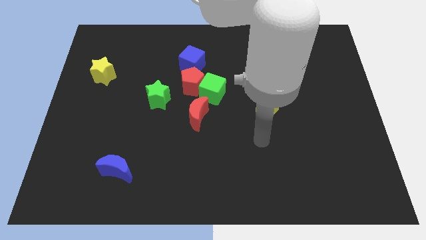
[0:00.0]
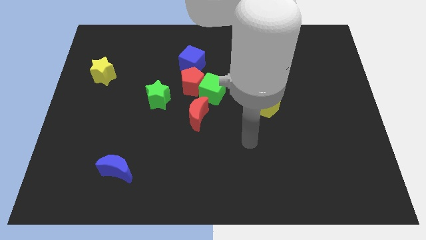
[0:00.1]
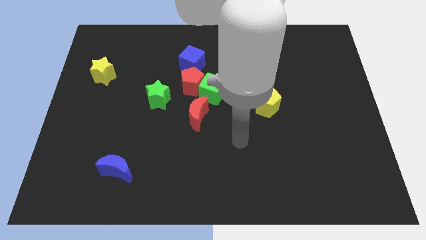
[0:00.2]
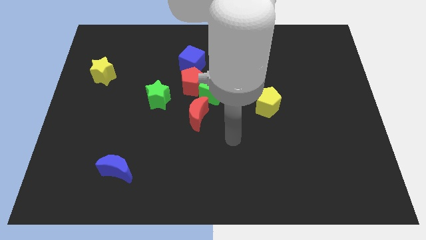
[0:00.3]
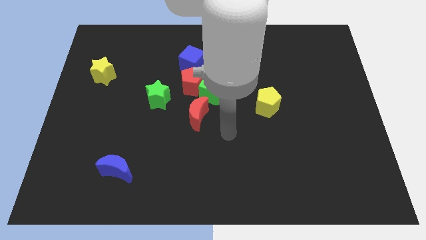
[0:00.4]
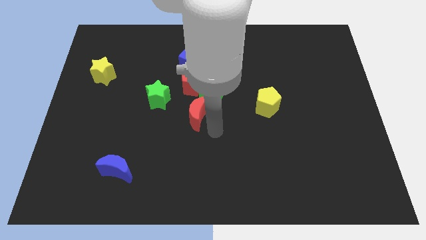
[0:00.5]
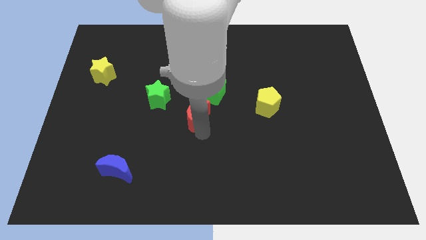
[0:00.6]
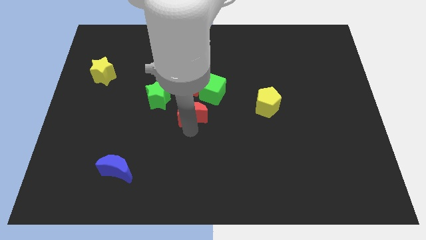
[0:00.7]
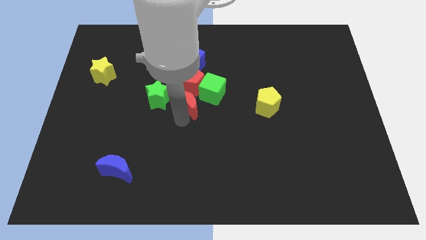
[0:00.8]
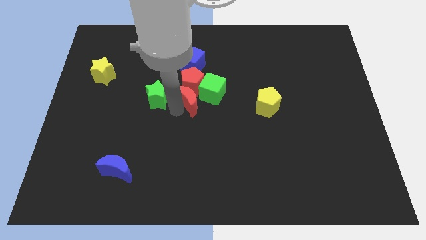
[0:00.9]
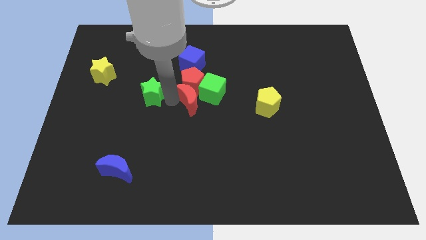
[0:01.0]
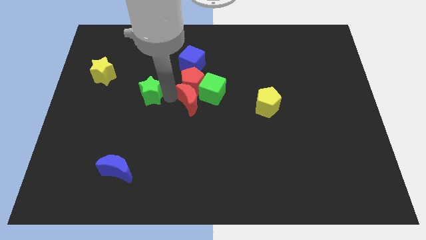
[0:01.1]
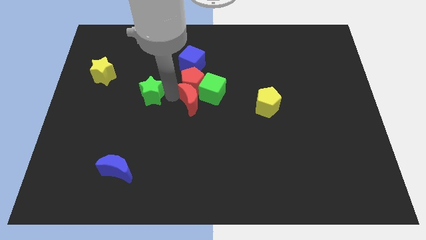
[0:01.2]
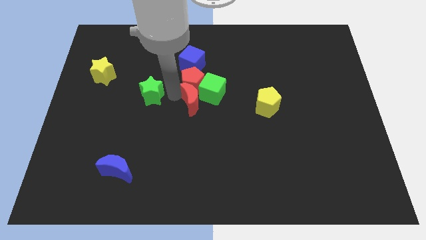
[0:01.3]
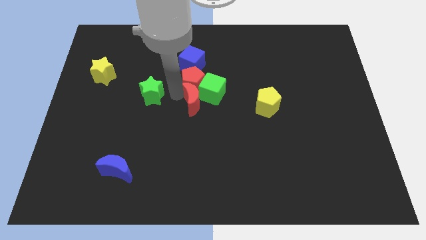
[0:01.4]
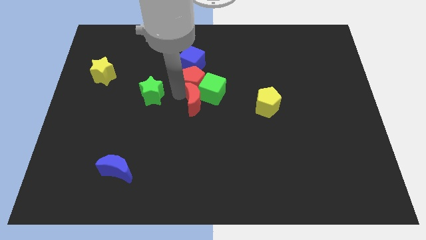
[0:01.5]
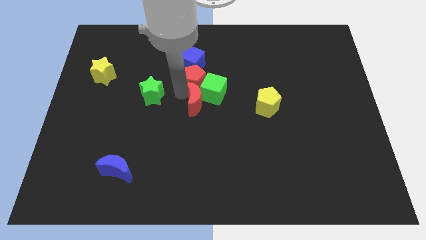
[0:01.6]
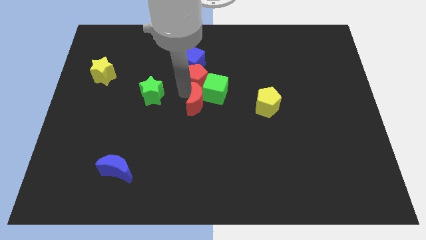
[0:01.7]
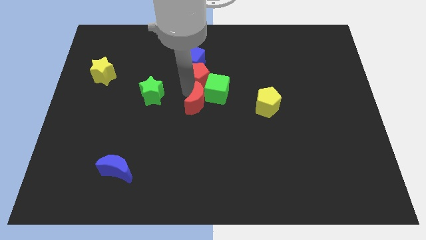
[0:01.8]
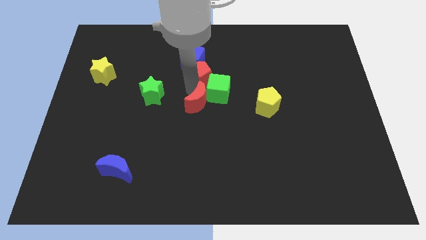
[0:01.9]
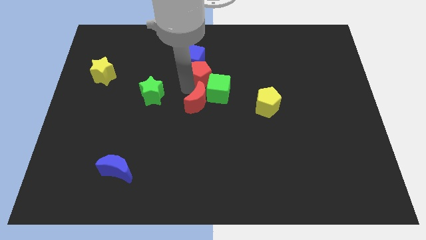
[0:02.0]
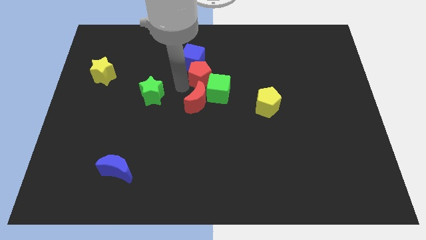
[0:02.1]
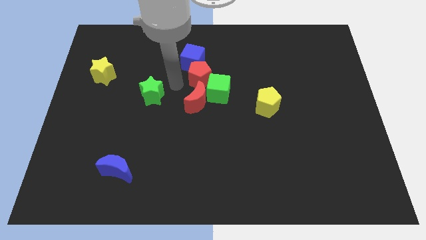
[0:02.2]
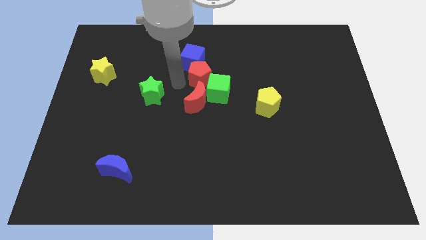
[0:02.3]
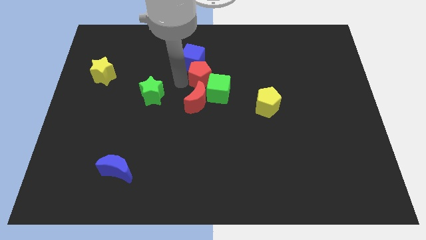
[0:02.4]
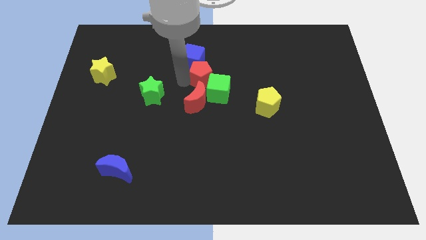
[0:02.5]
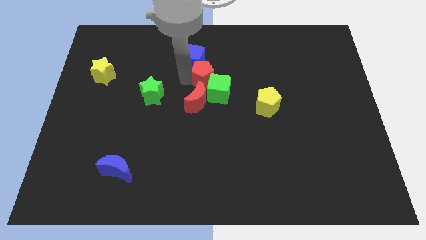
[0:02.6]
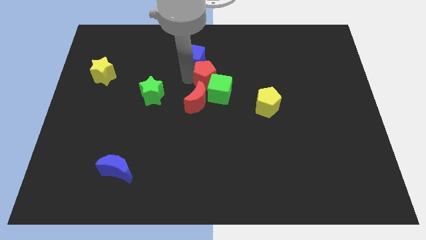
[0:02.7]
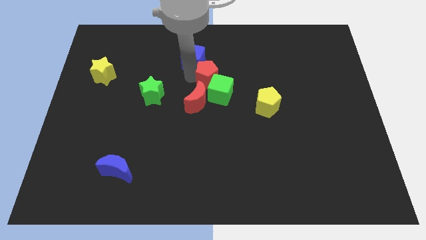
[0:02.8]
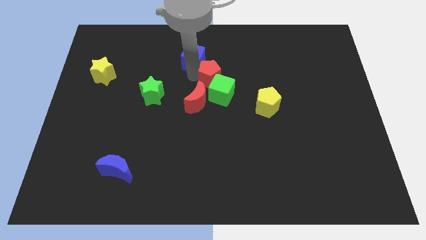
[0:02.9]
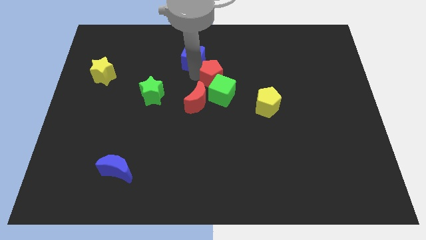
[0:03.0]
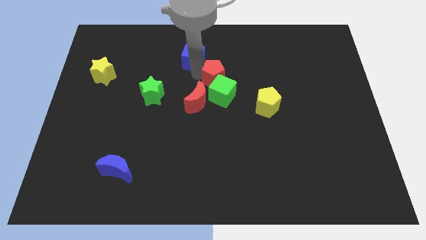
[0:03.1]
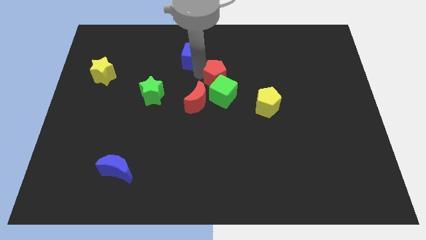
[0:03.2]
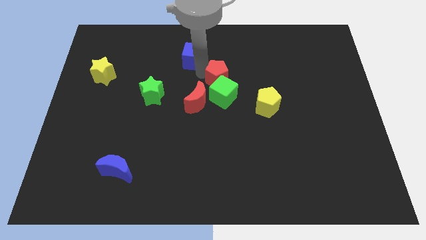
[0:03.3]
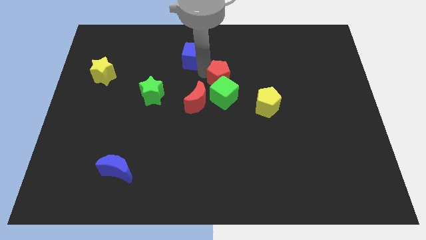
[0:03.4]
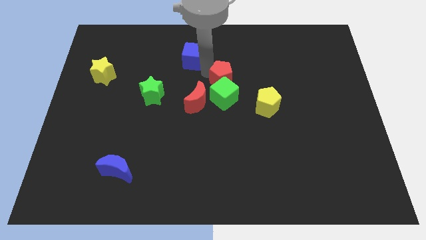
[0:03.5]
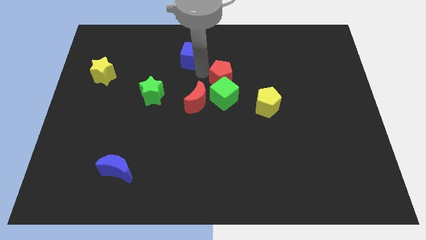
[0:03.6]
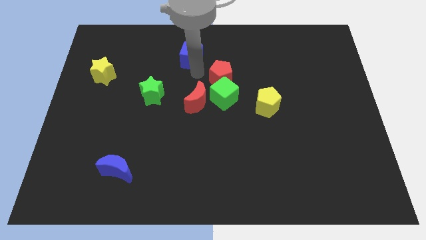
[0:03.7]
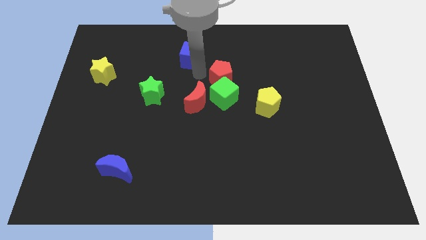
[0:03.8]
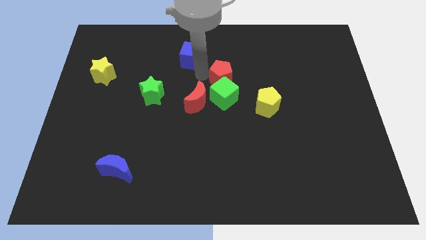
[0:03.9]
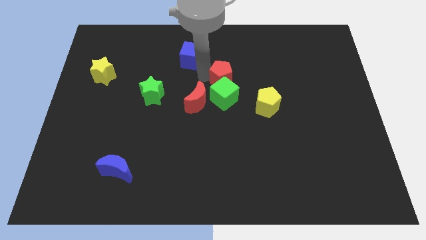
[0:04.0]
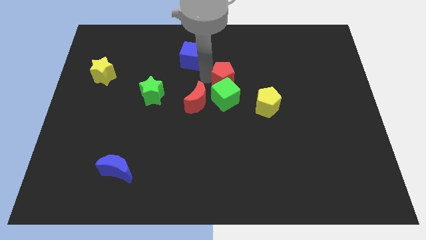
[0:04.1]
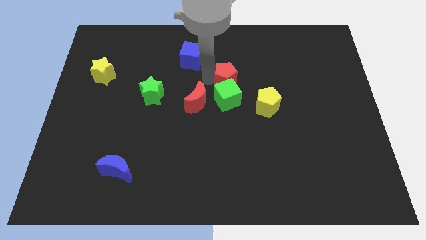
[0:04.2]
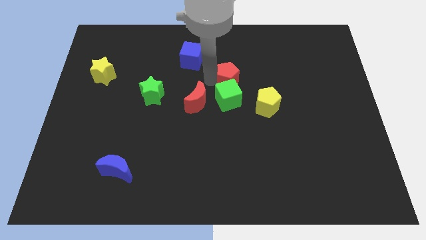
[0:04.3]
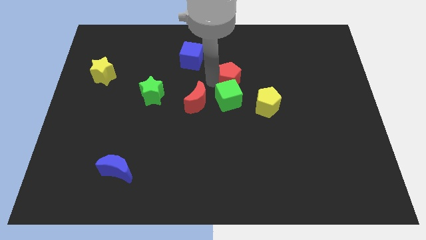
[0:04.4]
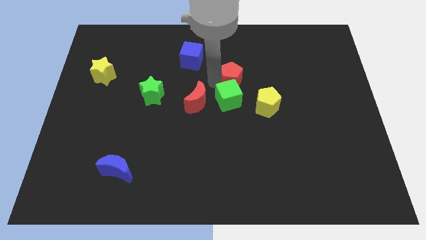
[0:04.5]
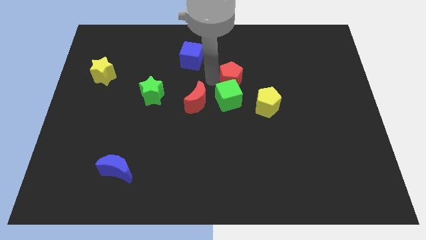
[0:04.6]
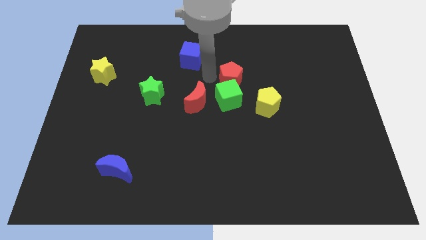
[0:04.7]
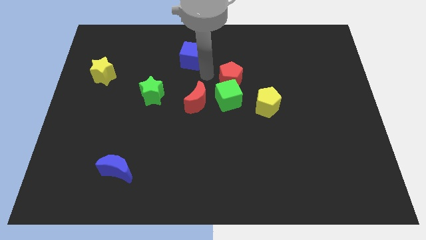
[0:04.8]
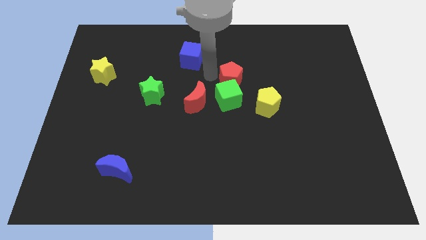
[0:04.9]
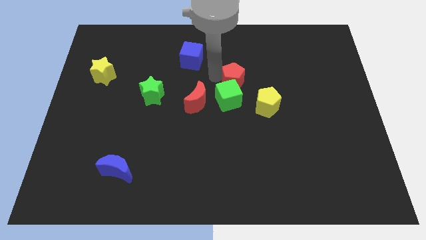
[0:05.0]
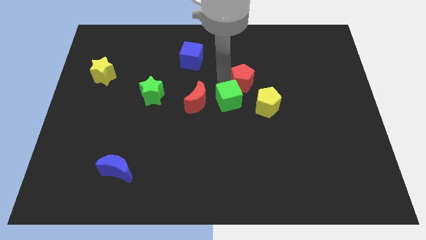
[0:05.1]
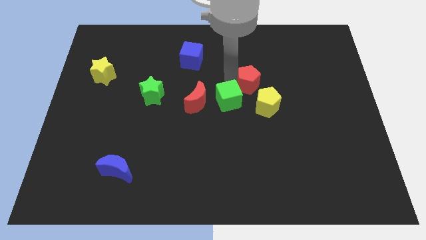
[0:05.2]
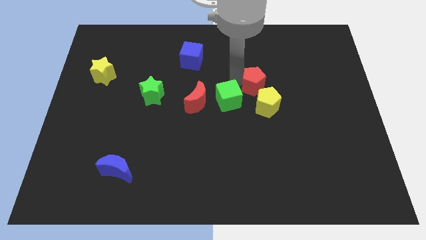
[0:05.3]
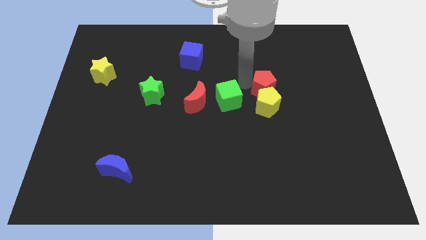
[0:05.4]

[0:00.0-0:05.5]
slide the red pentagon diagonally up and to the right of the yellow pentagon

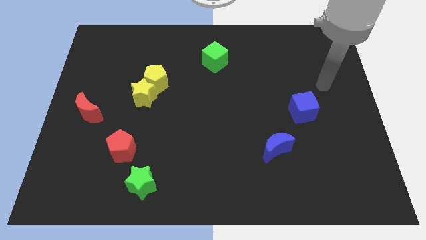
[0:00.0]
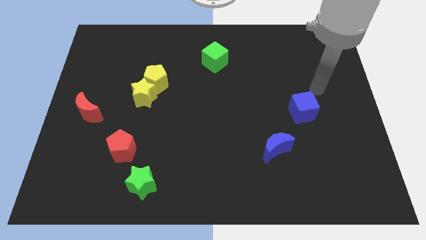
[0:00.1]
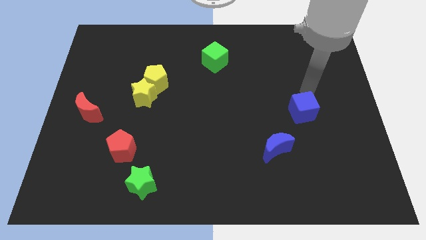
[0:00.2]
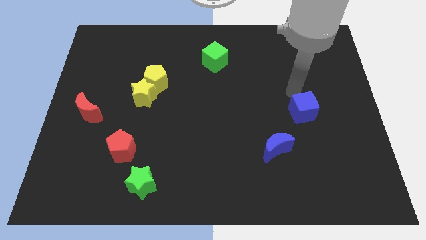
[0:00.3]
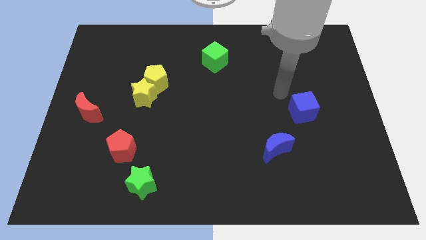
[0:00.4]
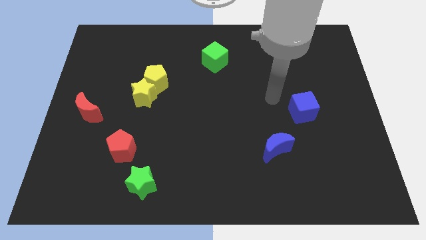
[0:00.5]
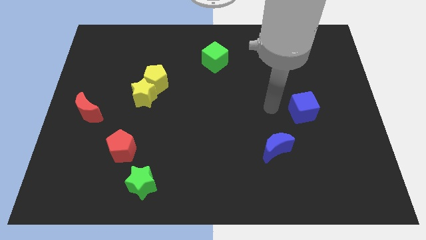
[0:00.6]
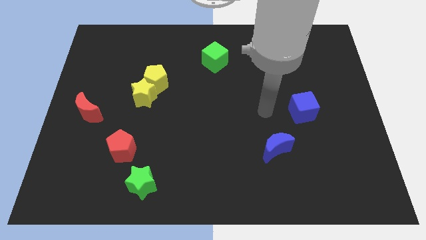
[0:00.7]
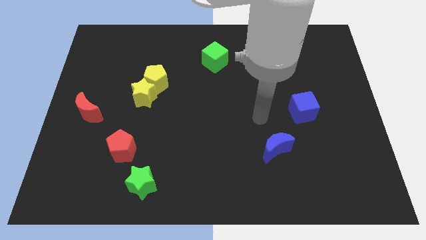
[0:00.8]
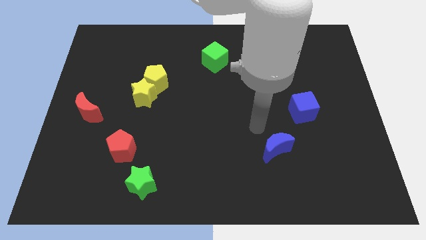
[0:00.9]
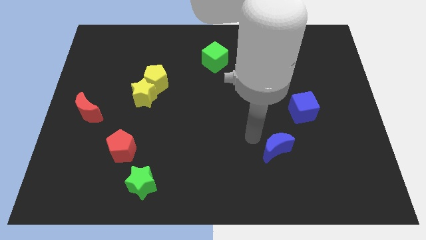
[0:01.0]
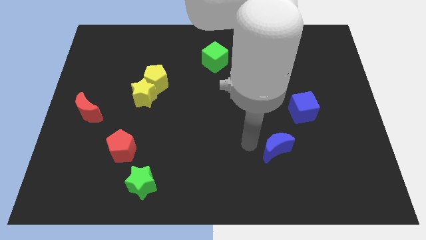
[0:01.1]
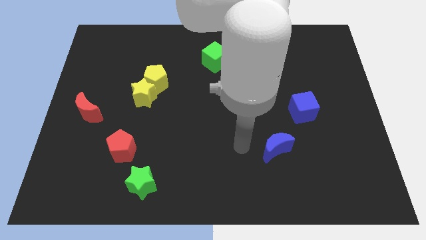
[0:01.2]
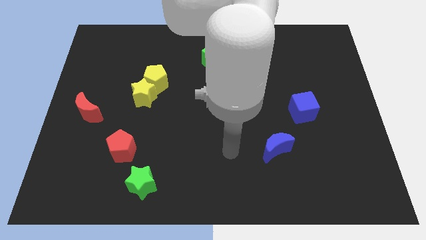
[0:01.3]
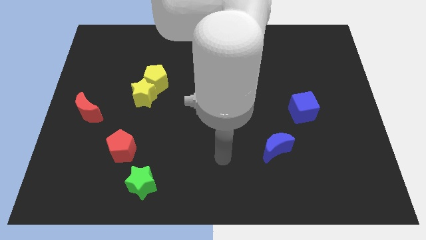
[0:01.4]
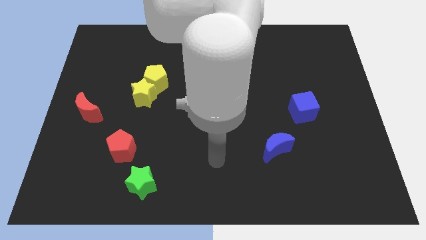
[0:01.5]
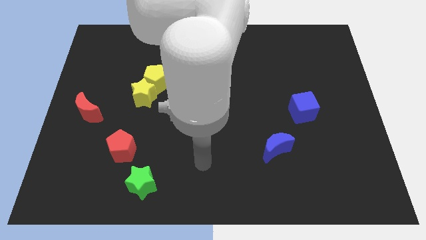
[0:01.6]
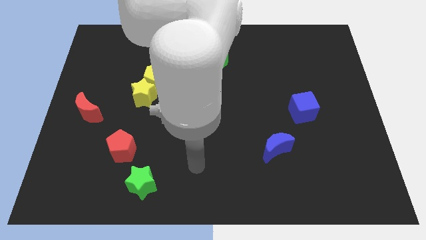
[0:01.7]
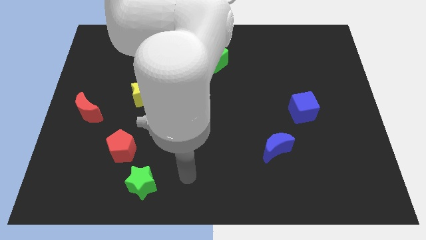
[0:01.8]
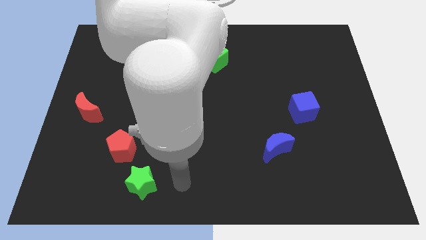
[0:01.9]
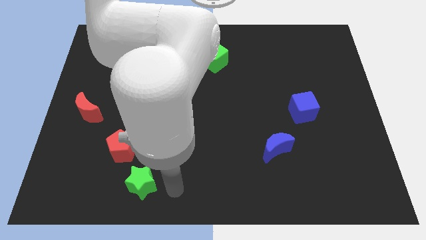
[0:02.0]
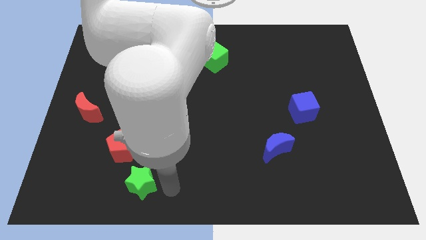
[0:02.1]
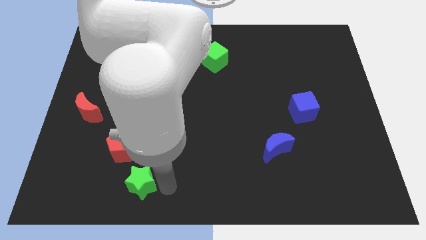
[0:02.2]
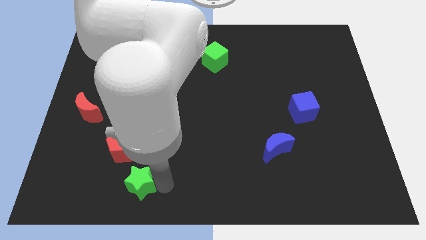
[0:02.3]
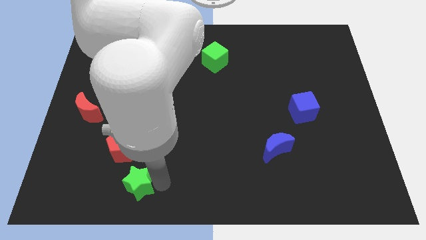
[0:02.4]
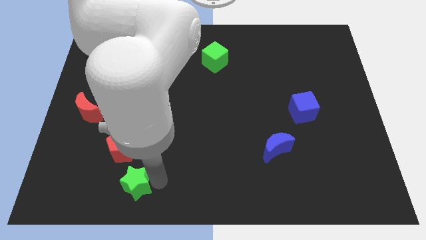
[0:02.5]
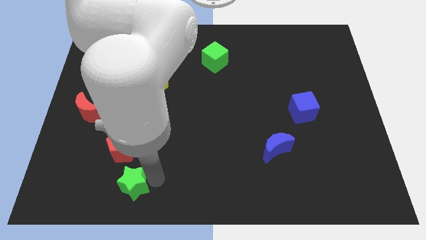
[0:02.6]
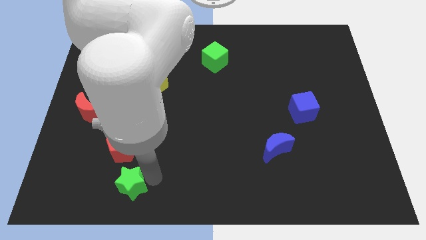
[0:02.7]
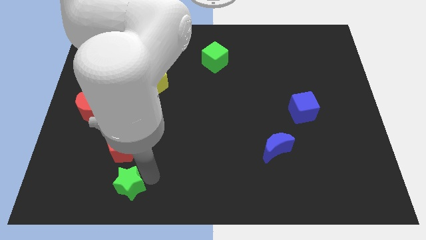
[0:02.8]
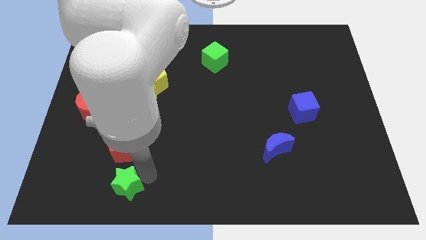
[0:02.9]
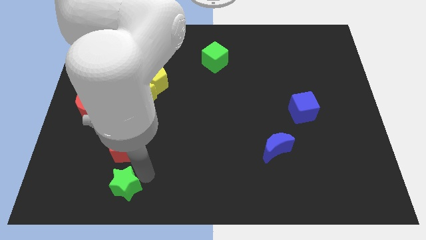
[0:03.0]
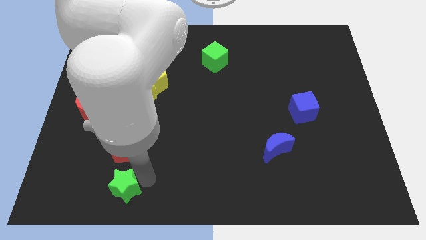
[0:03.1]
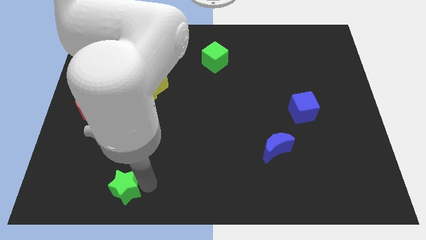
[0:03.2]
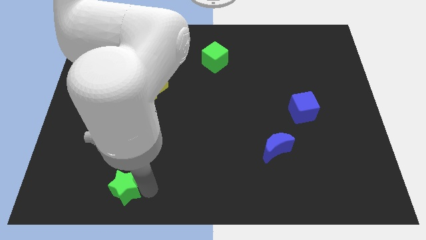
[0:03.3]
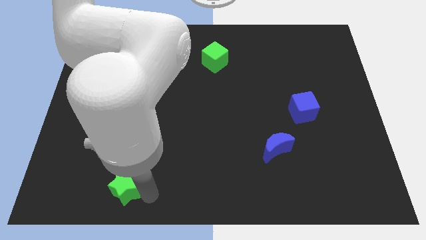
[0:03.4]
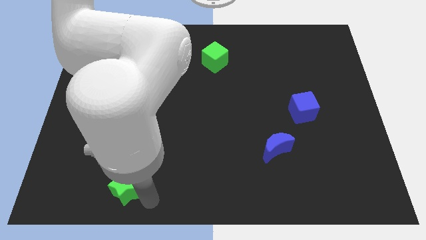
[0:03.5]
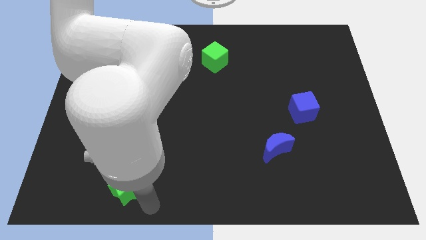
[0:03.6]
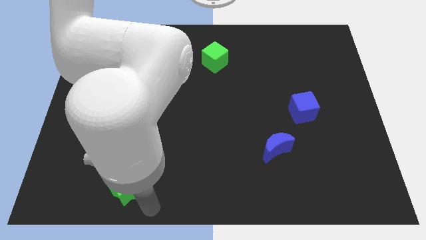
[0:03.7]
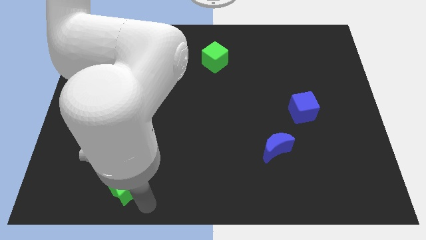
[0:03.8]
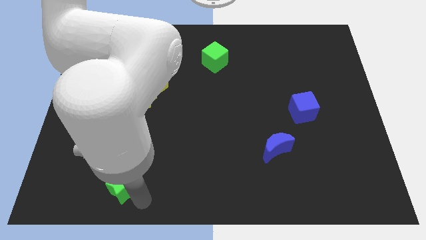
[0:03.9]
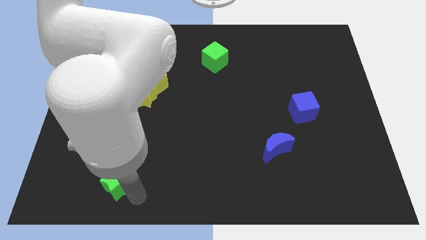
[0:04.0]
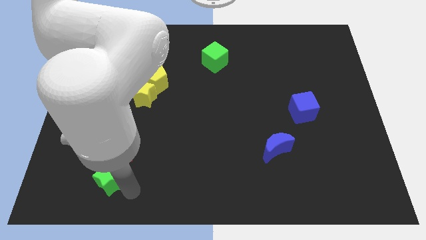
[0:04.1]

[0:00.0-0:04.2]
slide the green star to the bottom left side of the red pentagon
